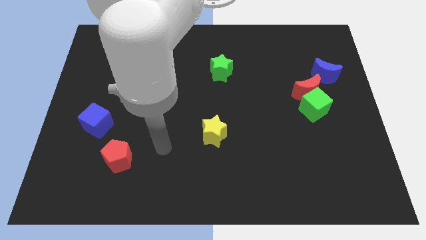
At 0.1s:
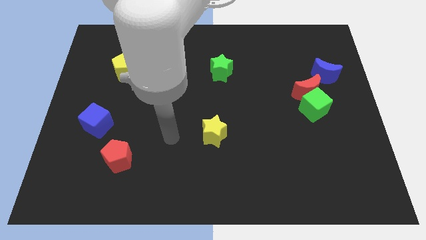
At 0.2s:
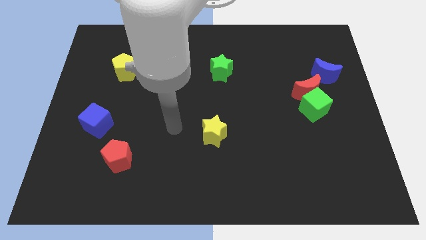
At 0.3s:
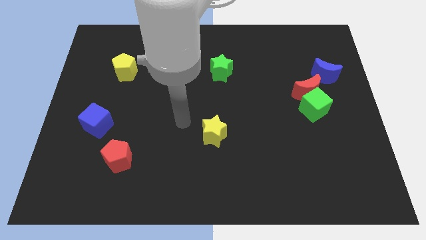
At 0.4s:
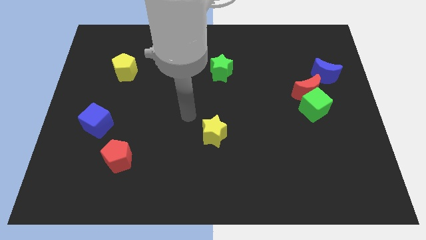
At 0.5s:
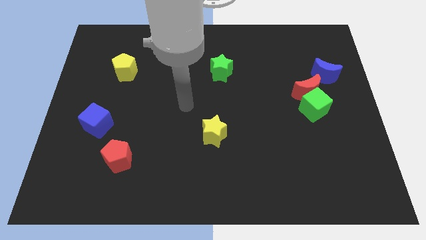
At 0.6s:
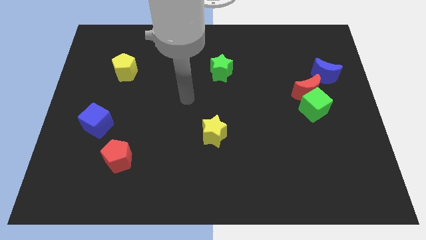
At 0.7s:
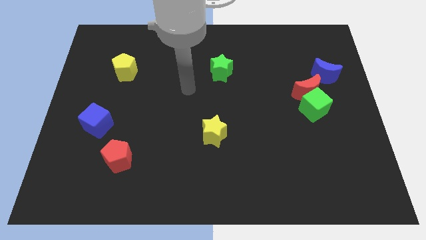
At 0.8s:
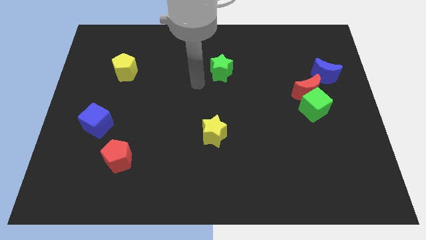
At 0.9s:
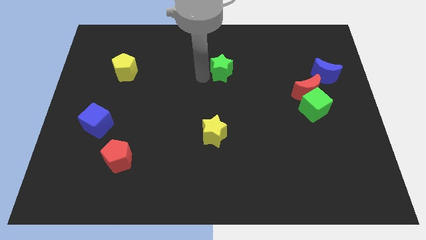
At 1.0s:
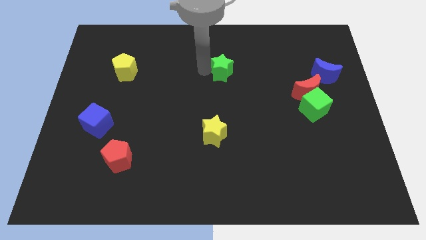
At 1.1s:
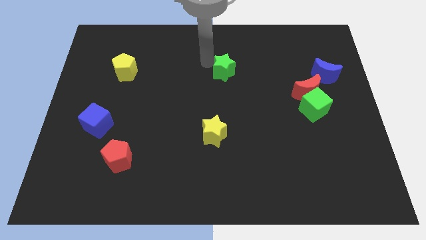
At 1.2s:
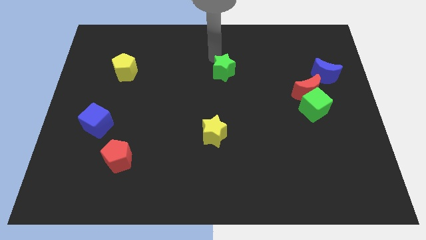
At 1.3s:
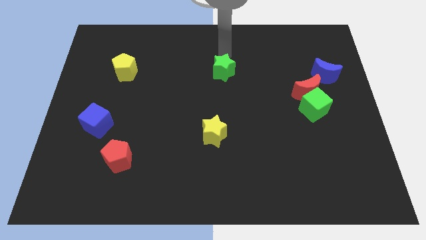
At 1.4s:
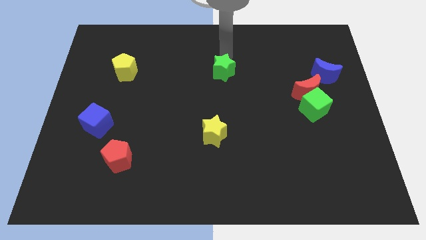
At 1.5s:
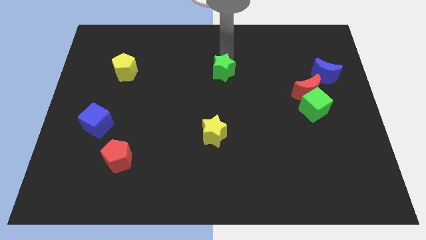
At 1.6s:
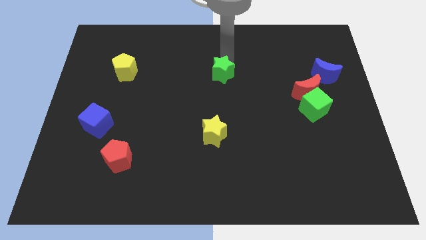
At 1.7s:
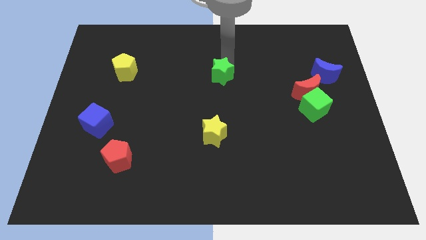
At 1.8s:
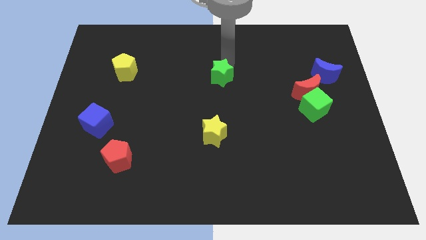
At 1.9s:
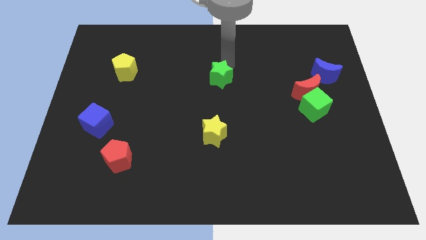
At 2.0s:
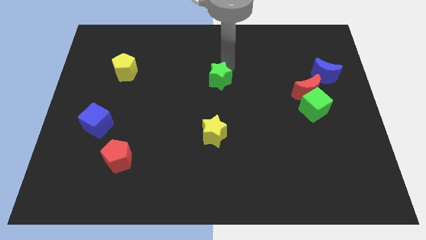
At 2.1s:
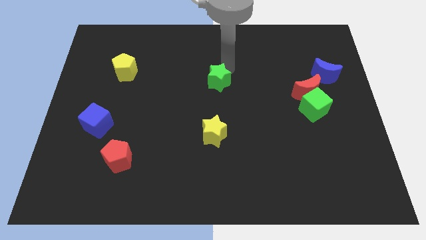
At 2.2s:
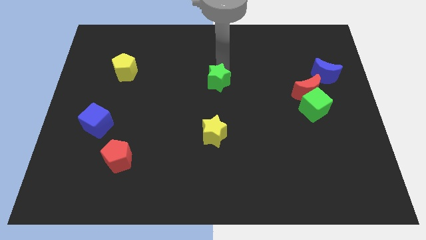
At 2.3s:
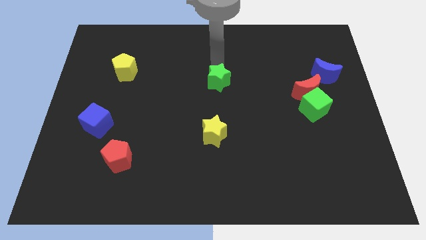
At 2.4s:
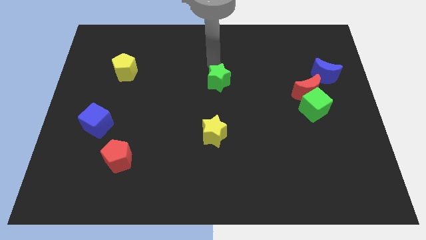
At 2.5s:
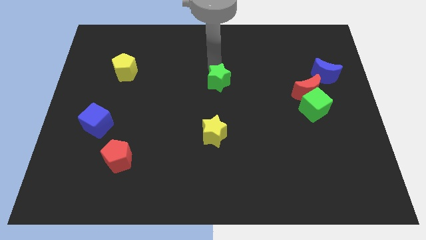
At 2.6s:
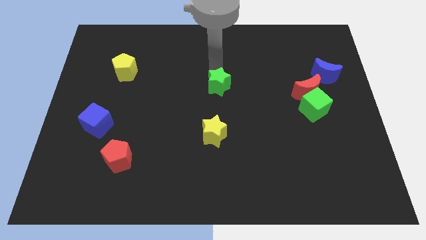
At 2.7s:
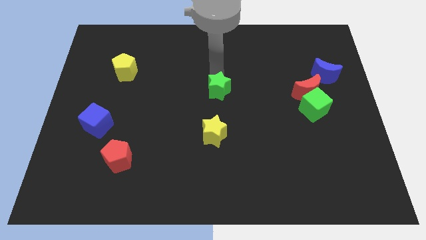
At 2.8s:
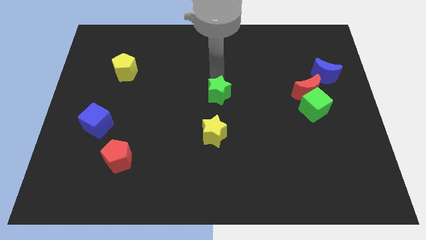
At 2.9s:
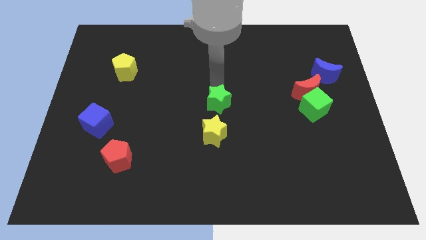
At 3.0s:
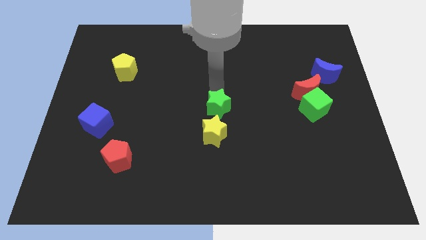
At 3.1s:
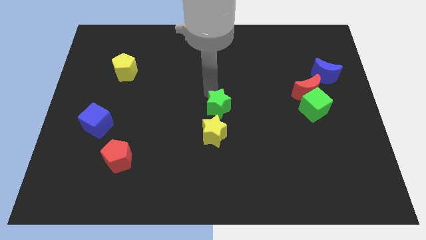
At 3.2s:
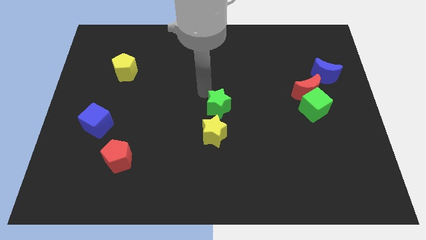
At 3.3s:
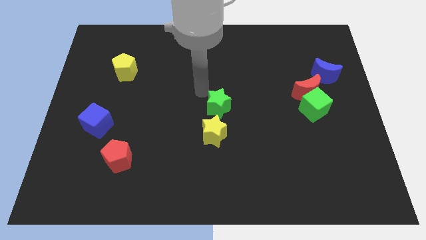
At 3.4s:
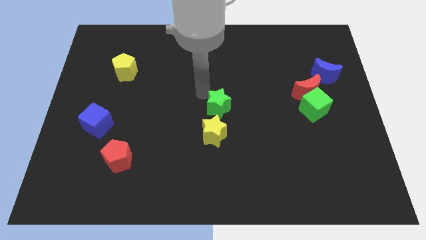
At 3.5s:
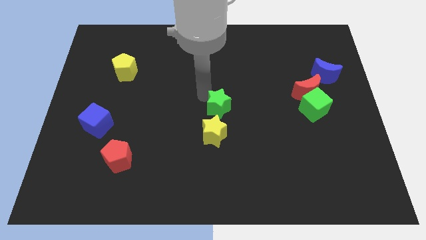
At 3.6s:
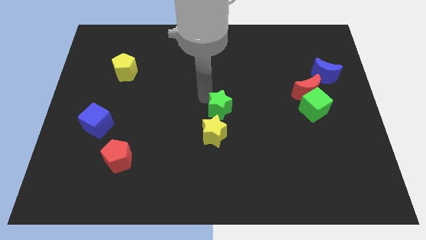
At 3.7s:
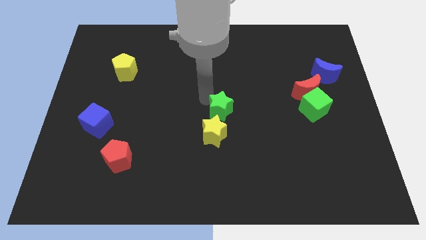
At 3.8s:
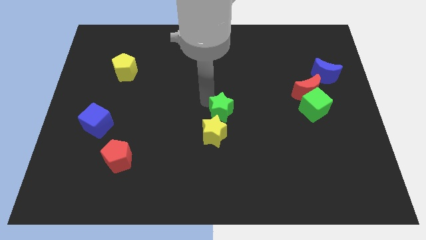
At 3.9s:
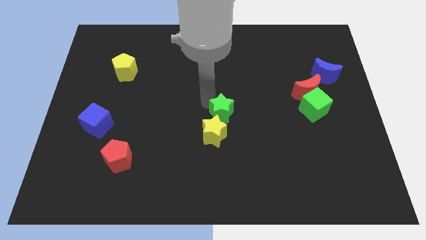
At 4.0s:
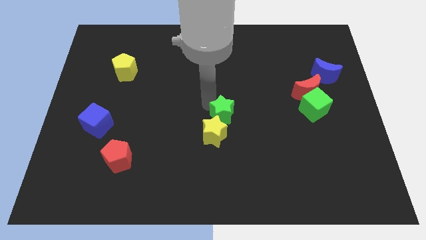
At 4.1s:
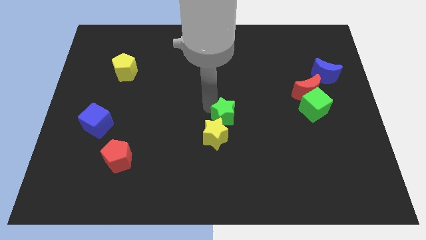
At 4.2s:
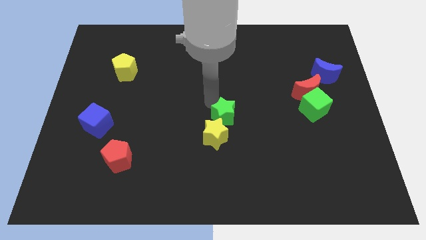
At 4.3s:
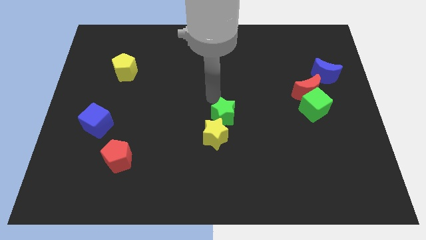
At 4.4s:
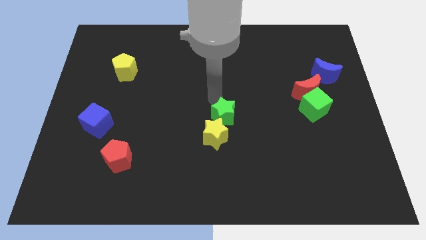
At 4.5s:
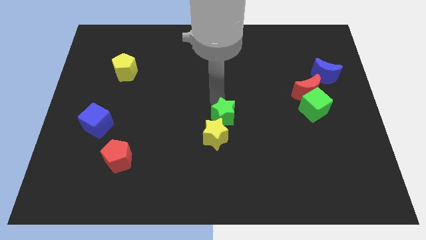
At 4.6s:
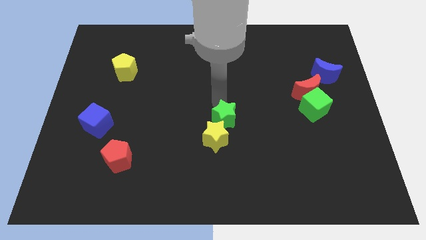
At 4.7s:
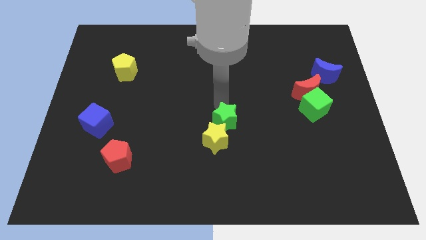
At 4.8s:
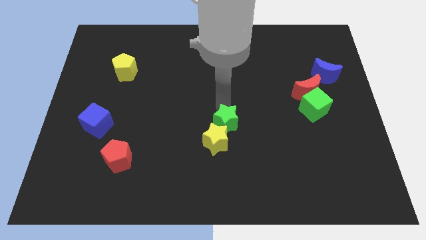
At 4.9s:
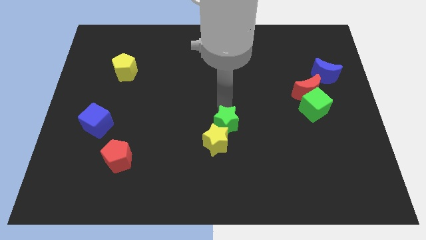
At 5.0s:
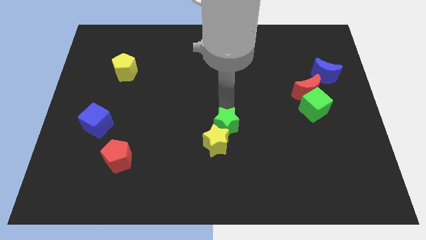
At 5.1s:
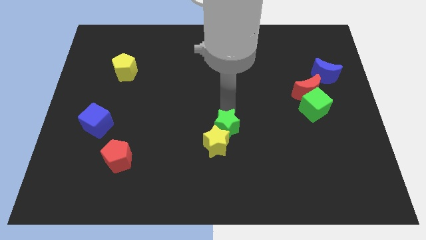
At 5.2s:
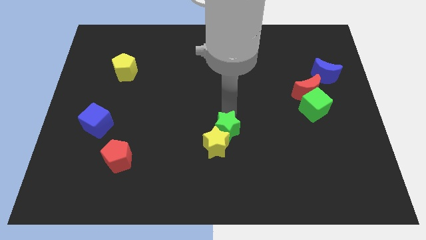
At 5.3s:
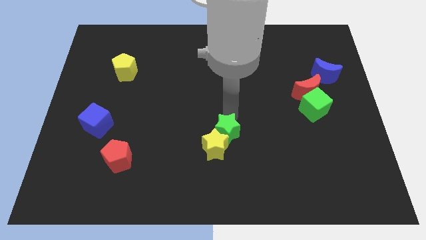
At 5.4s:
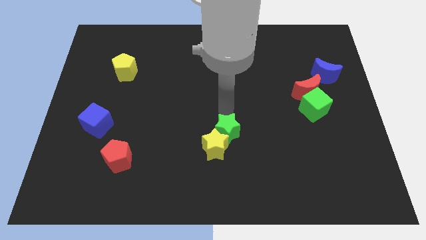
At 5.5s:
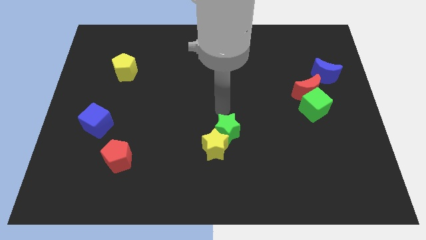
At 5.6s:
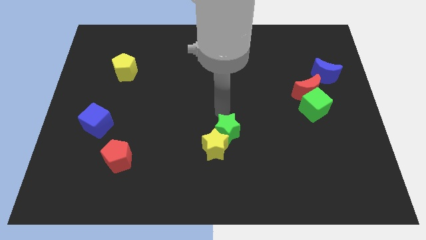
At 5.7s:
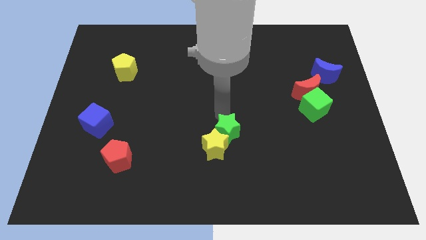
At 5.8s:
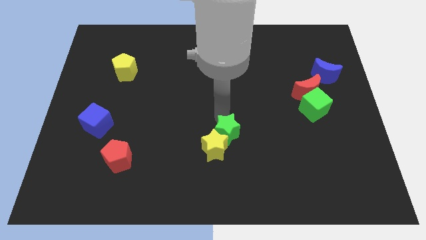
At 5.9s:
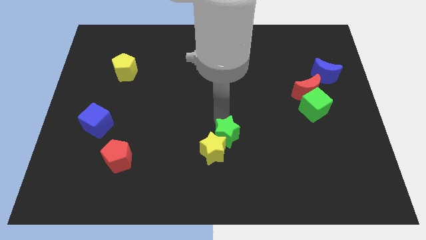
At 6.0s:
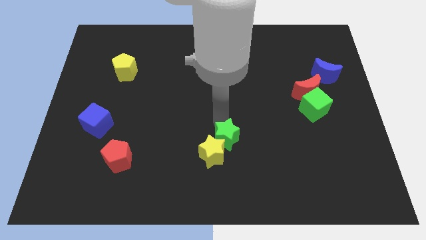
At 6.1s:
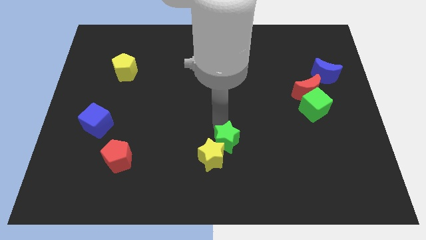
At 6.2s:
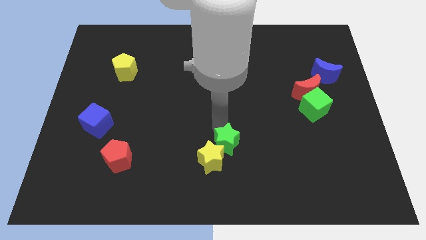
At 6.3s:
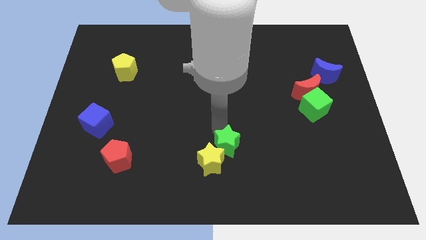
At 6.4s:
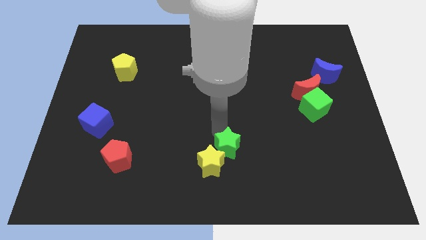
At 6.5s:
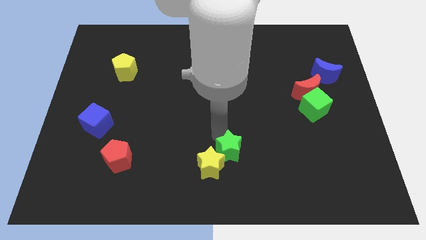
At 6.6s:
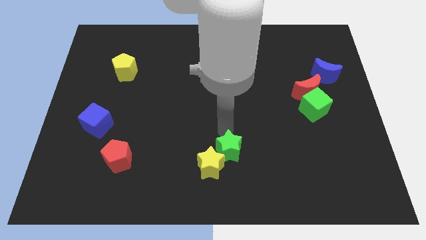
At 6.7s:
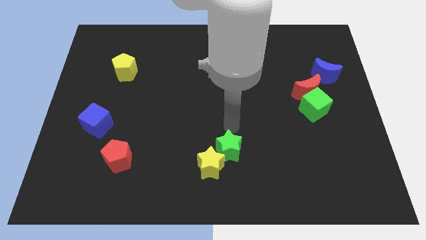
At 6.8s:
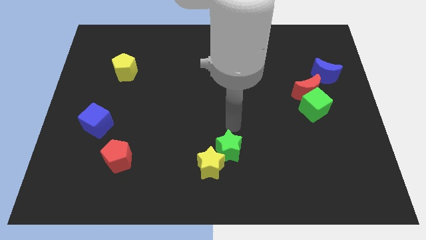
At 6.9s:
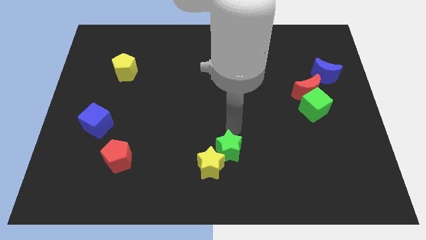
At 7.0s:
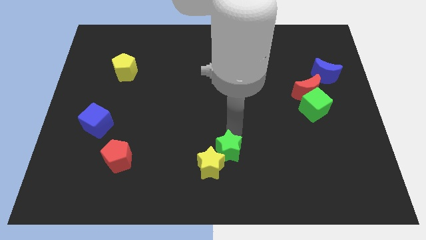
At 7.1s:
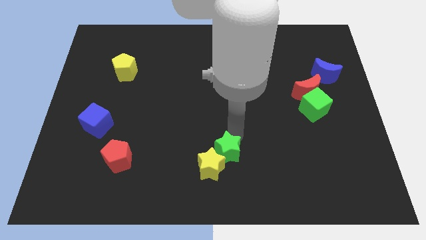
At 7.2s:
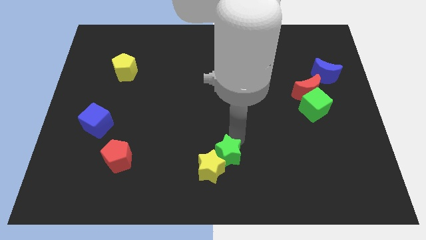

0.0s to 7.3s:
move the green star to the bottom
